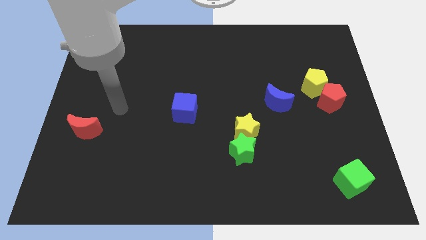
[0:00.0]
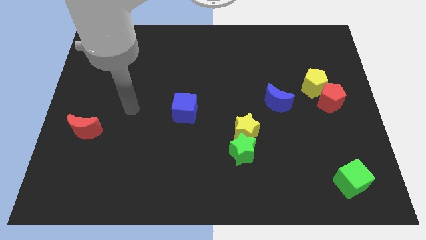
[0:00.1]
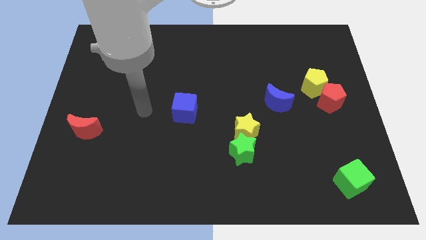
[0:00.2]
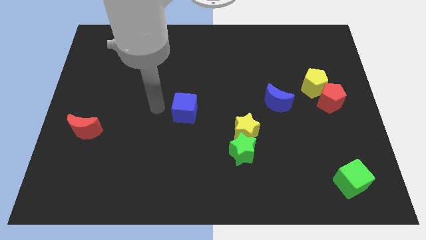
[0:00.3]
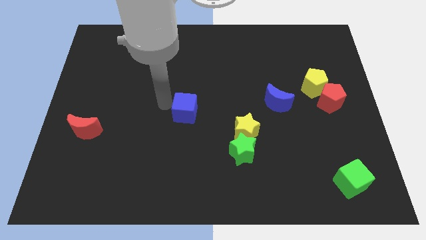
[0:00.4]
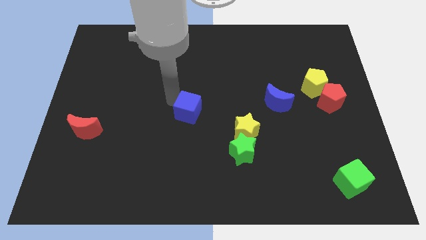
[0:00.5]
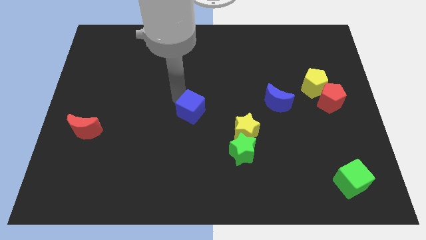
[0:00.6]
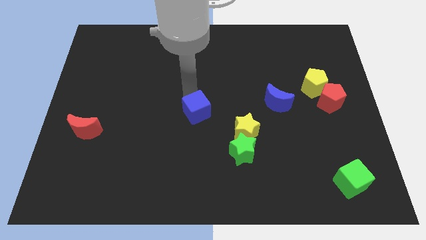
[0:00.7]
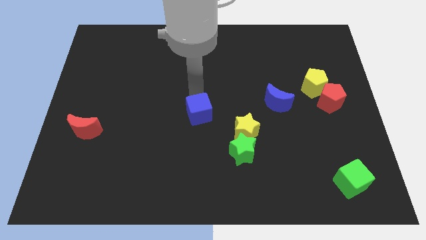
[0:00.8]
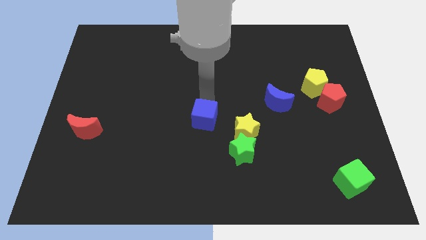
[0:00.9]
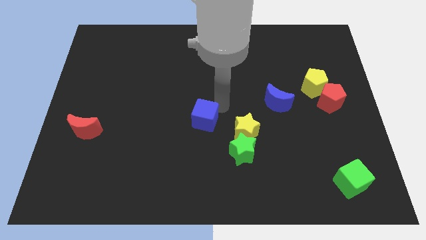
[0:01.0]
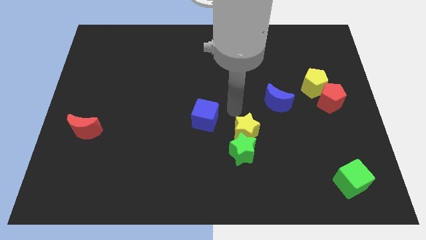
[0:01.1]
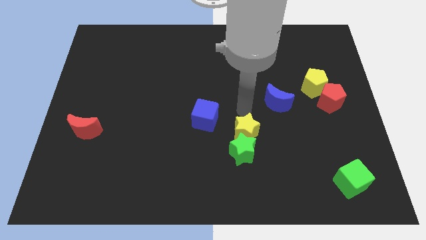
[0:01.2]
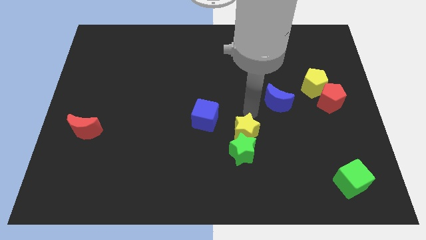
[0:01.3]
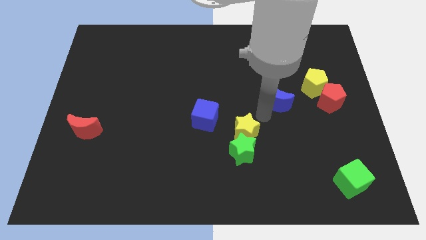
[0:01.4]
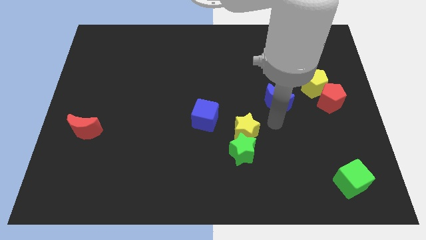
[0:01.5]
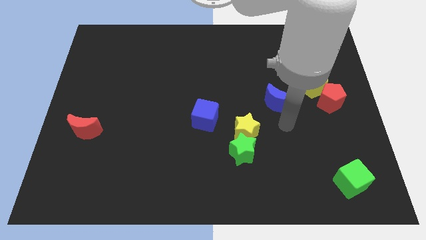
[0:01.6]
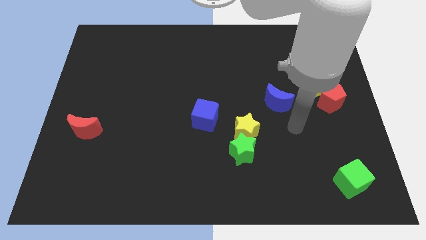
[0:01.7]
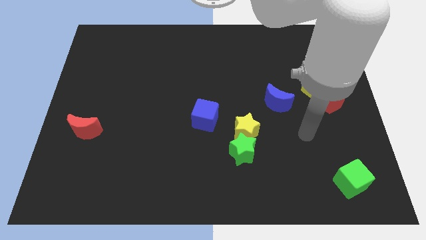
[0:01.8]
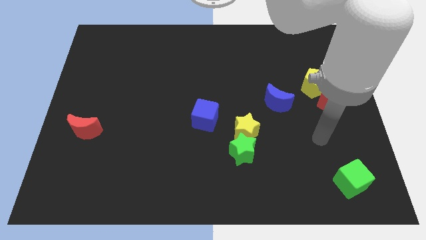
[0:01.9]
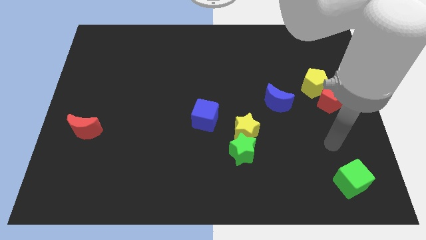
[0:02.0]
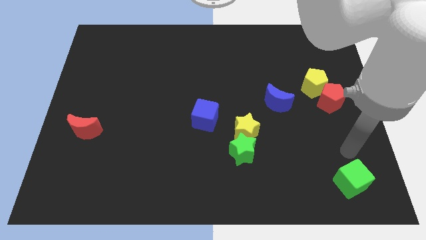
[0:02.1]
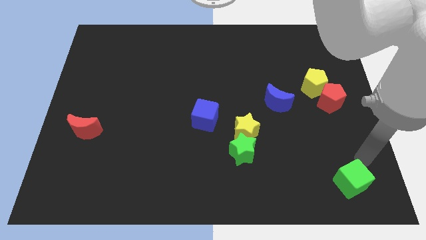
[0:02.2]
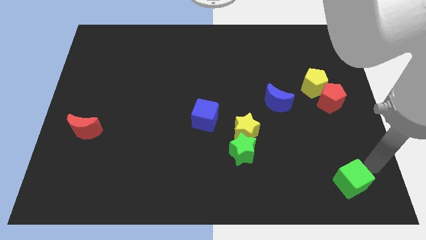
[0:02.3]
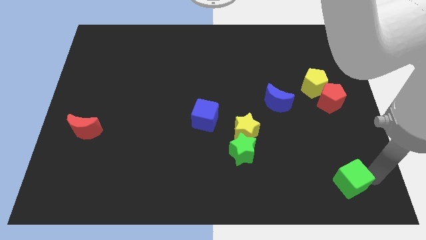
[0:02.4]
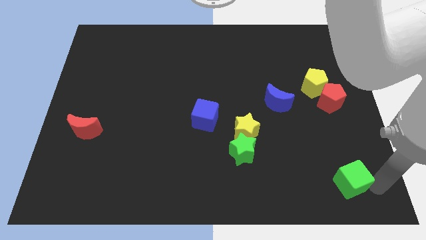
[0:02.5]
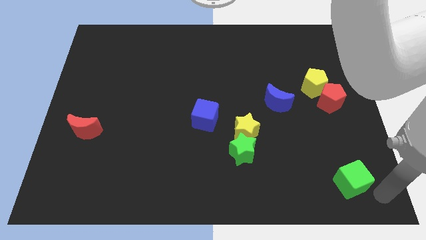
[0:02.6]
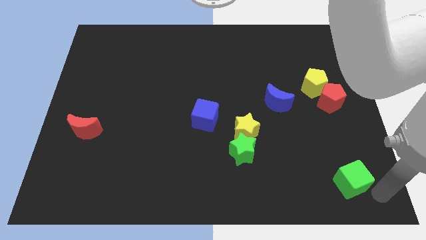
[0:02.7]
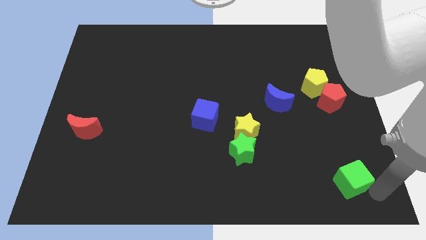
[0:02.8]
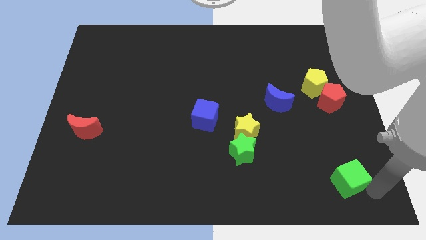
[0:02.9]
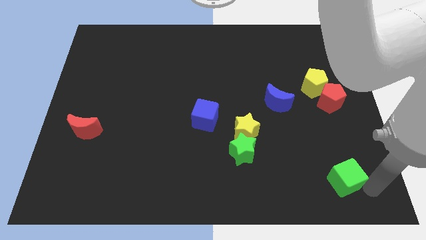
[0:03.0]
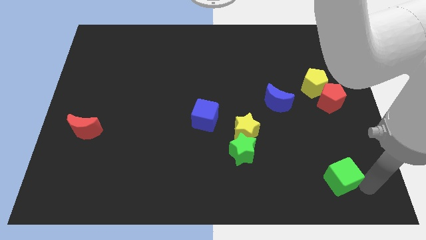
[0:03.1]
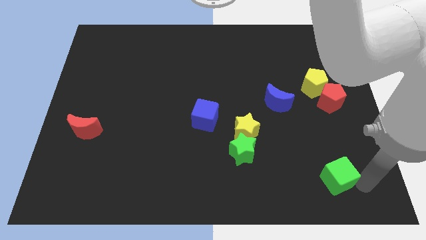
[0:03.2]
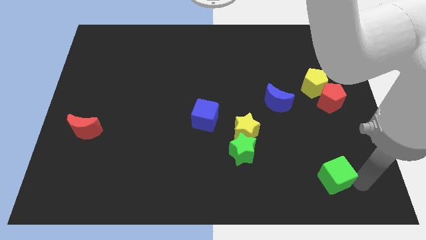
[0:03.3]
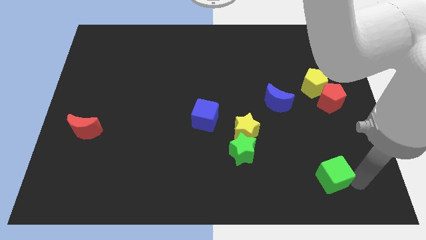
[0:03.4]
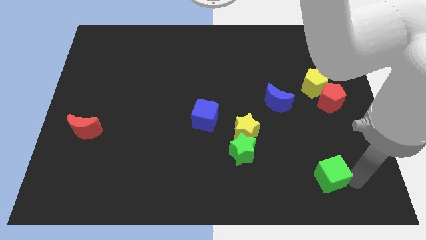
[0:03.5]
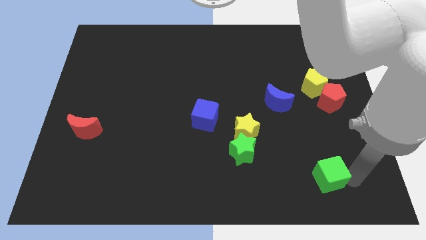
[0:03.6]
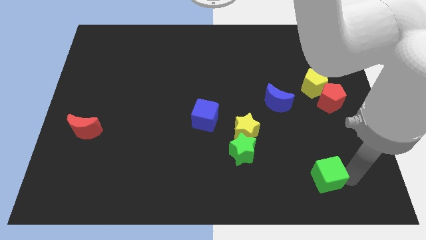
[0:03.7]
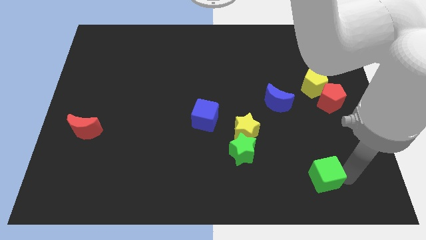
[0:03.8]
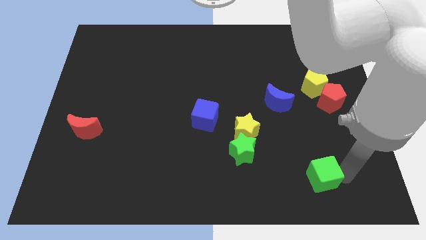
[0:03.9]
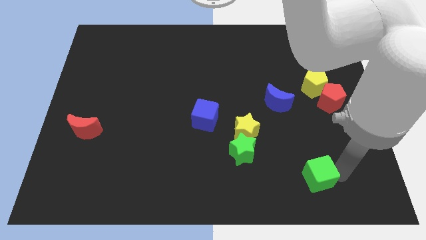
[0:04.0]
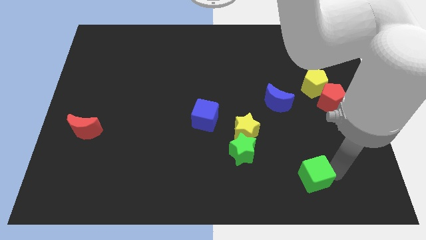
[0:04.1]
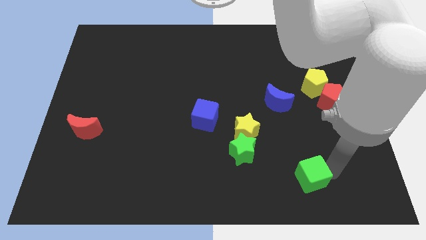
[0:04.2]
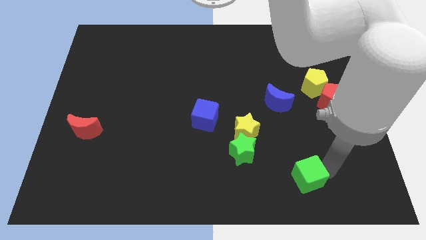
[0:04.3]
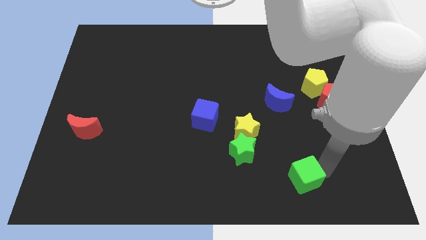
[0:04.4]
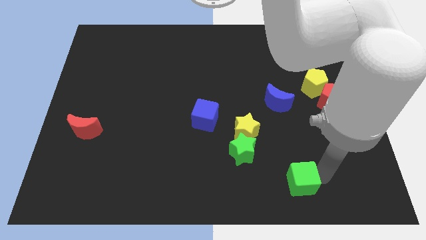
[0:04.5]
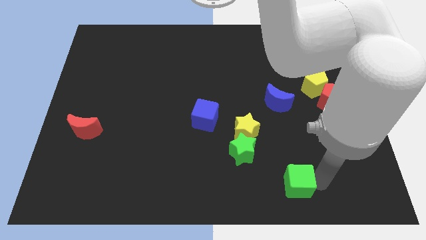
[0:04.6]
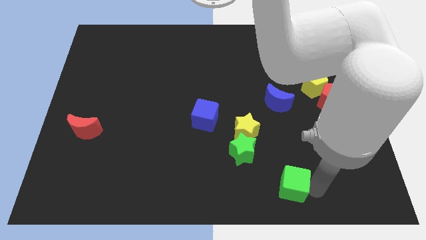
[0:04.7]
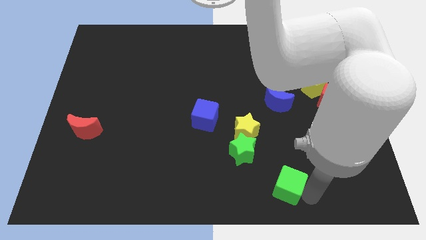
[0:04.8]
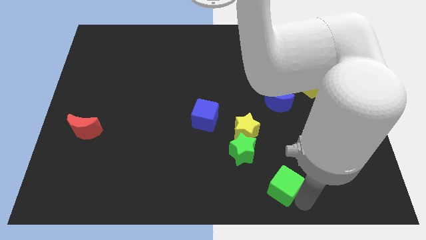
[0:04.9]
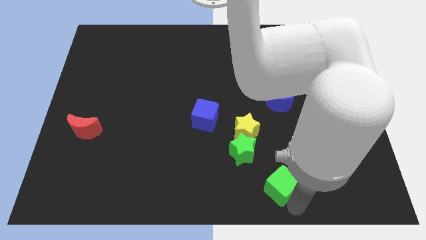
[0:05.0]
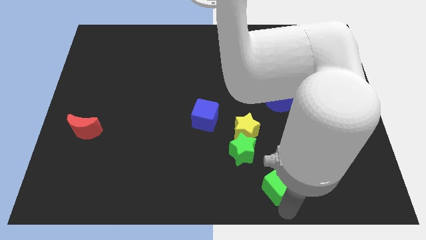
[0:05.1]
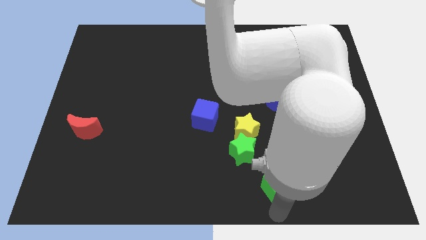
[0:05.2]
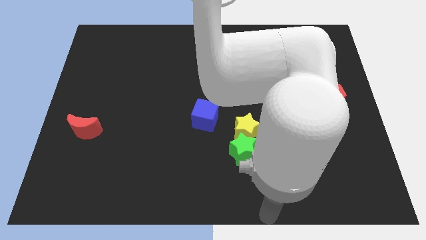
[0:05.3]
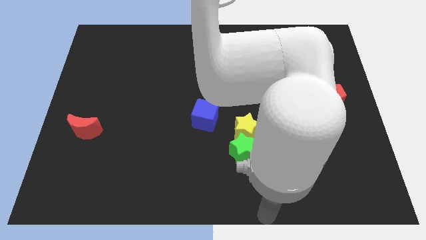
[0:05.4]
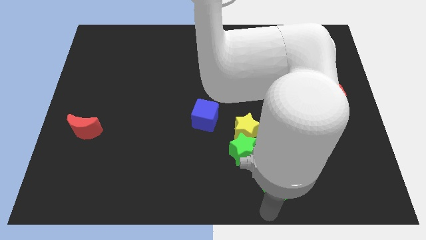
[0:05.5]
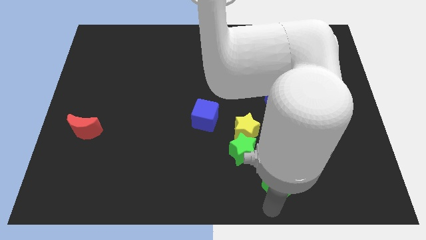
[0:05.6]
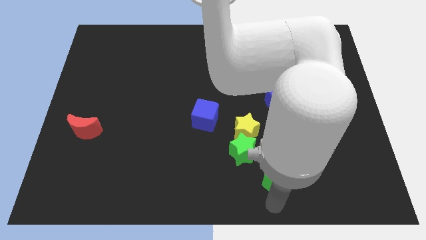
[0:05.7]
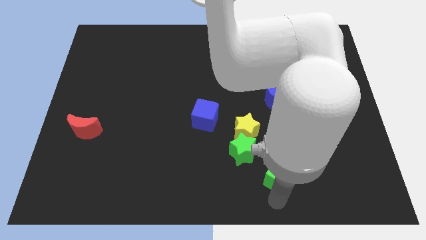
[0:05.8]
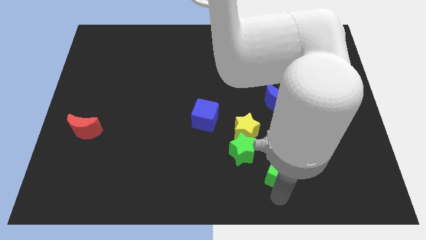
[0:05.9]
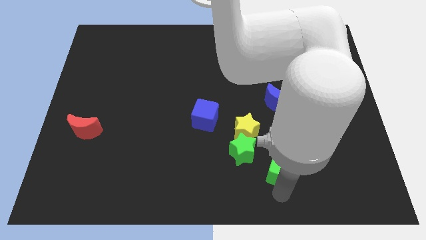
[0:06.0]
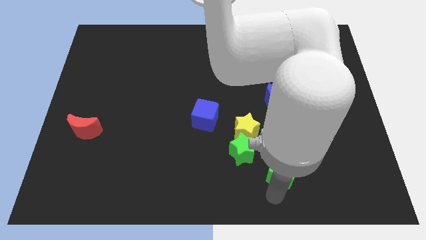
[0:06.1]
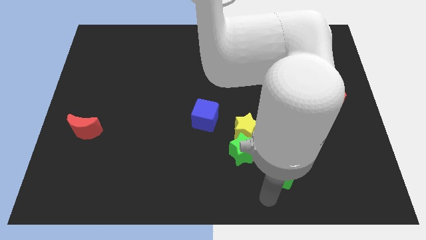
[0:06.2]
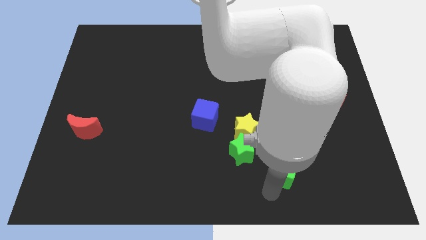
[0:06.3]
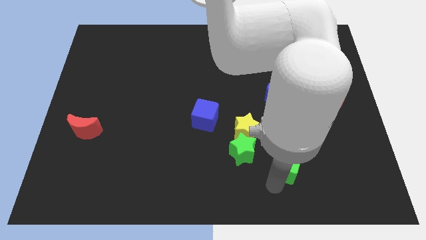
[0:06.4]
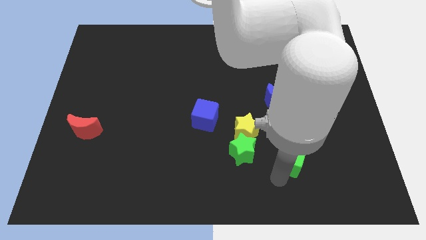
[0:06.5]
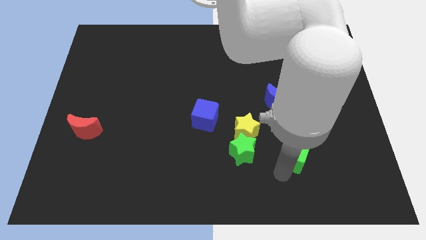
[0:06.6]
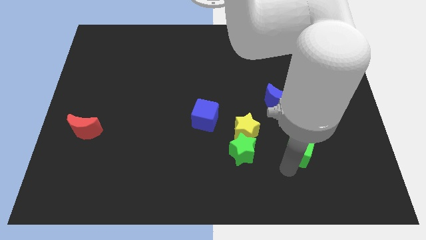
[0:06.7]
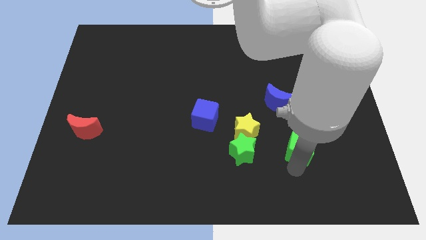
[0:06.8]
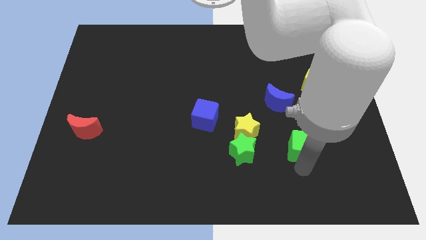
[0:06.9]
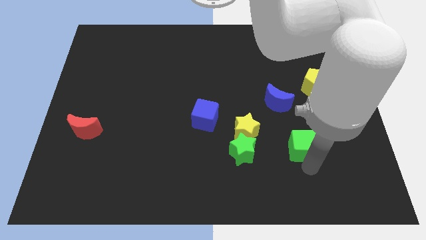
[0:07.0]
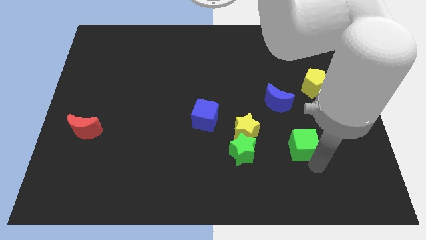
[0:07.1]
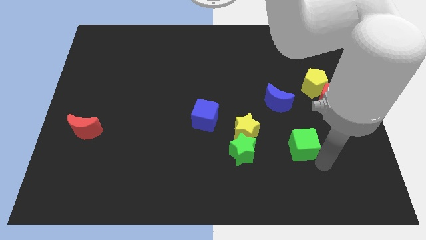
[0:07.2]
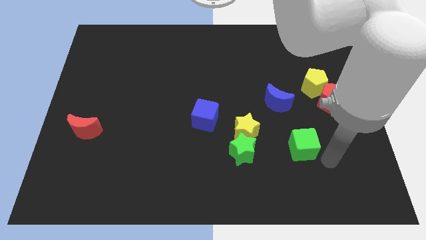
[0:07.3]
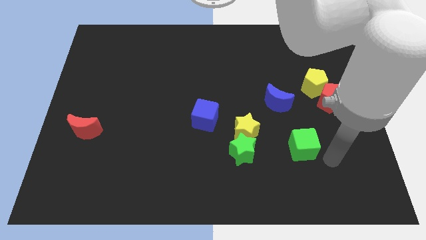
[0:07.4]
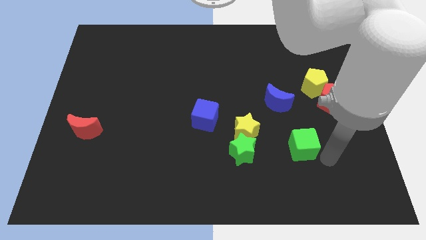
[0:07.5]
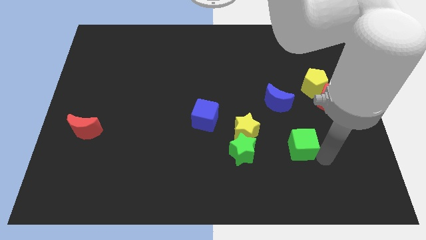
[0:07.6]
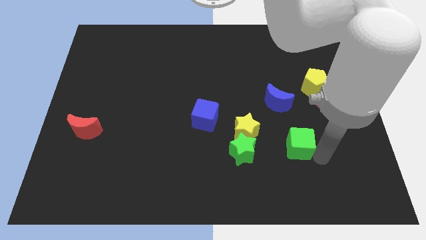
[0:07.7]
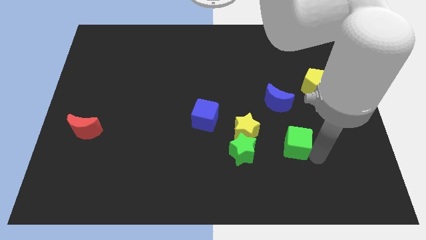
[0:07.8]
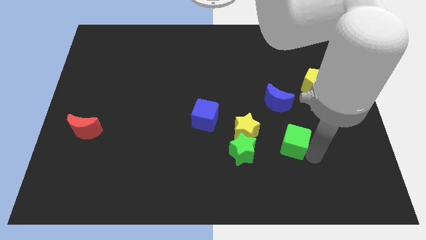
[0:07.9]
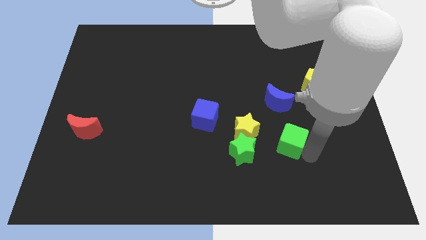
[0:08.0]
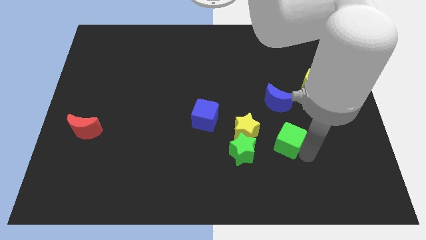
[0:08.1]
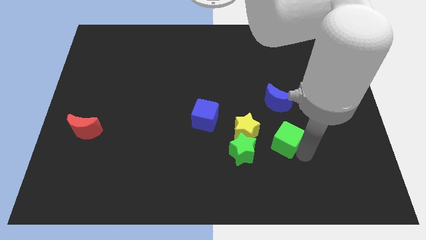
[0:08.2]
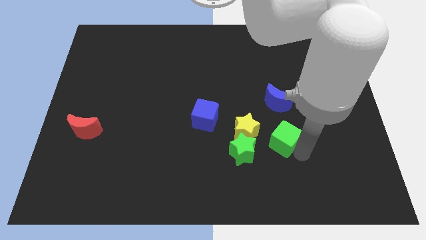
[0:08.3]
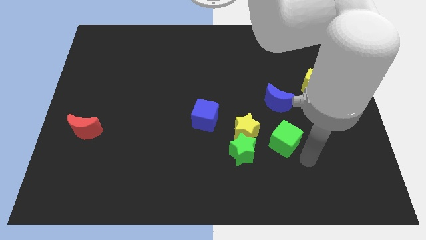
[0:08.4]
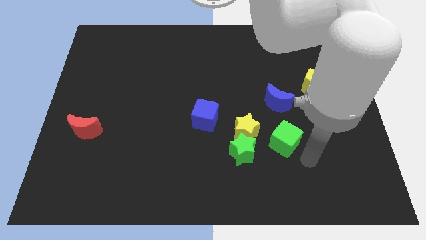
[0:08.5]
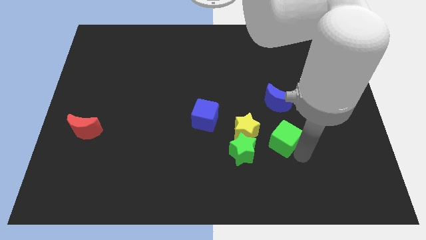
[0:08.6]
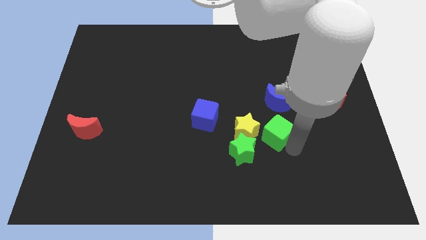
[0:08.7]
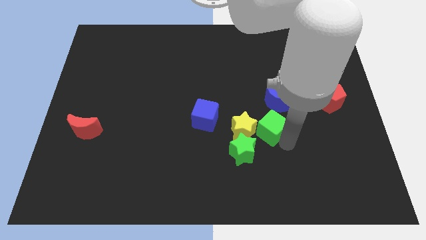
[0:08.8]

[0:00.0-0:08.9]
put the green cube to the bottom left side of the blue moon
